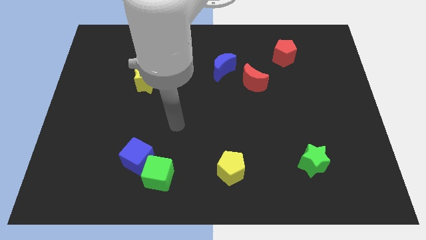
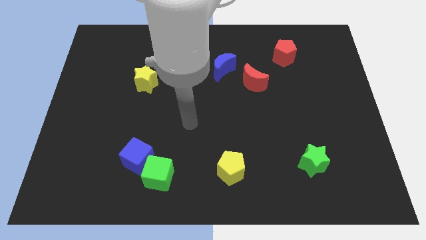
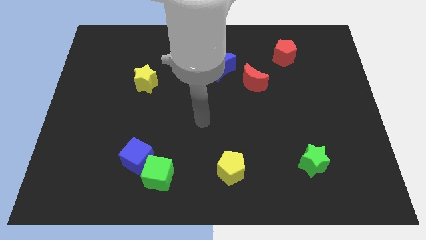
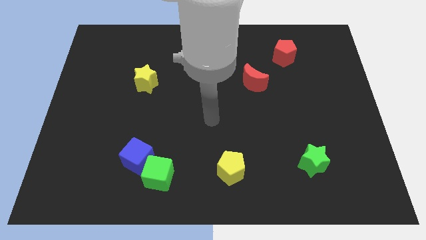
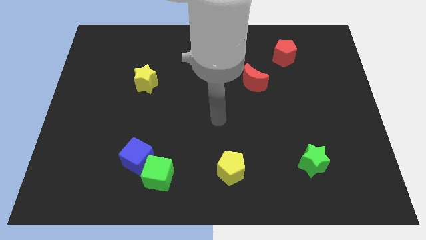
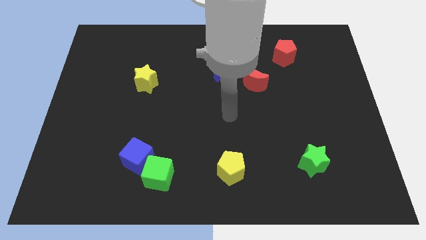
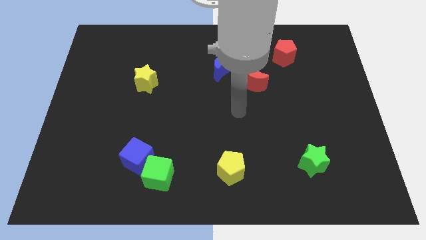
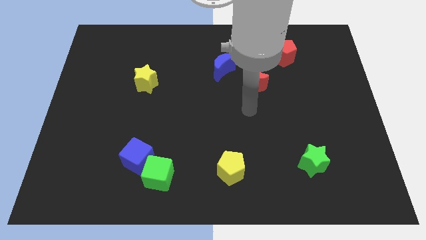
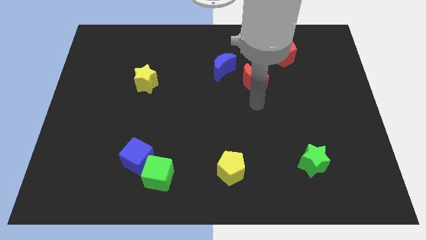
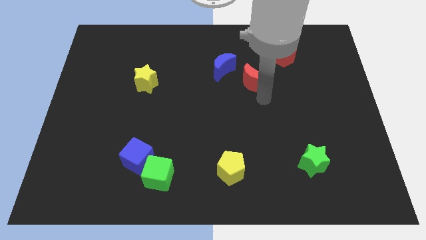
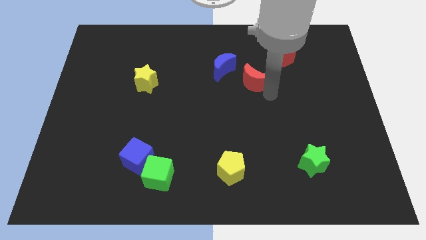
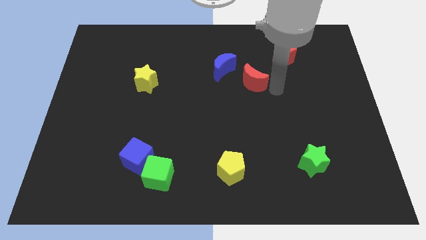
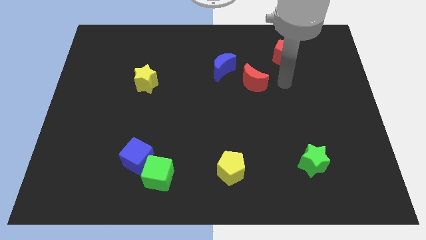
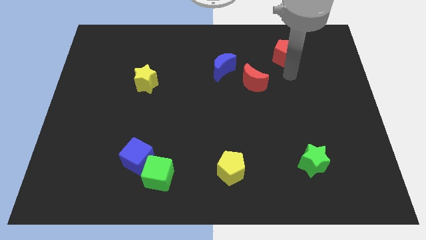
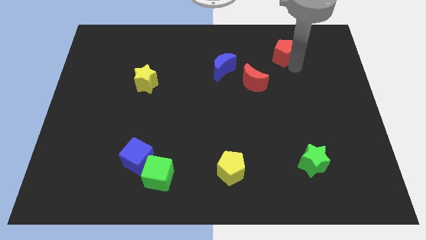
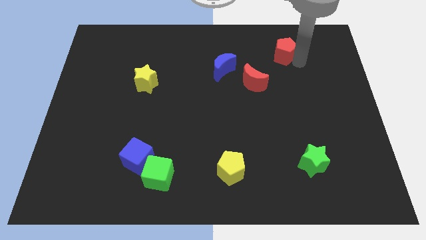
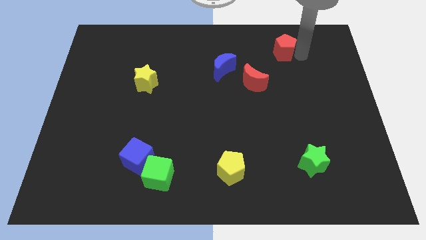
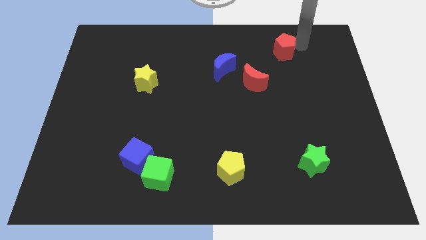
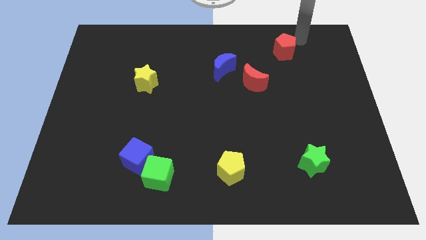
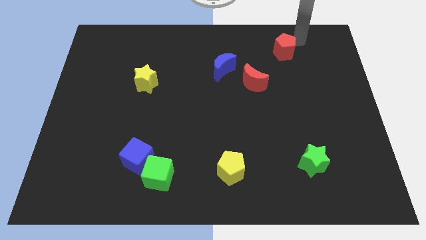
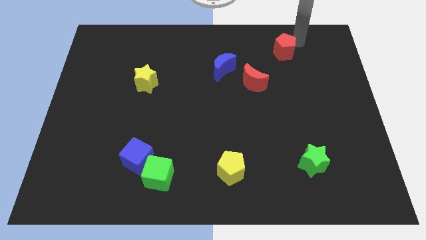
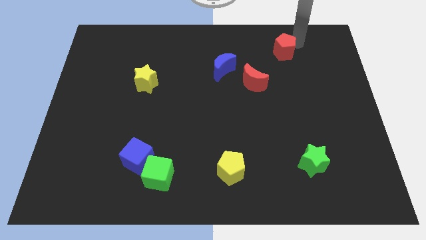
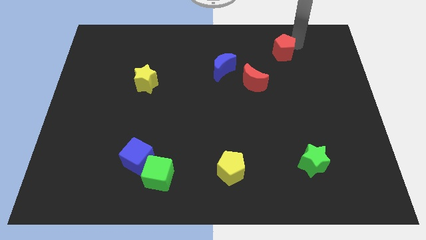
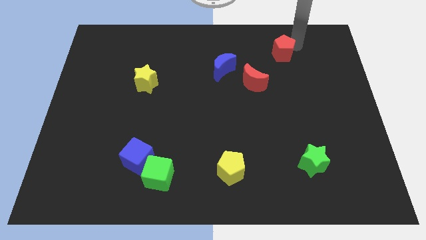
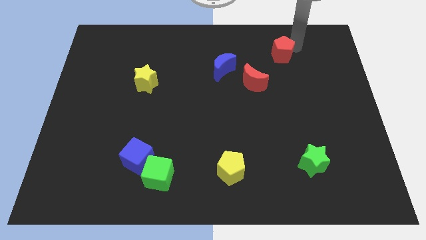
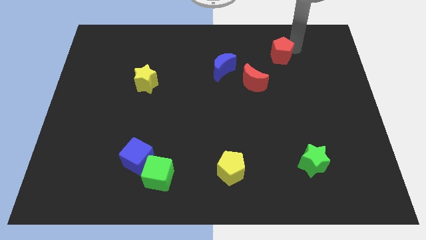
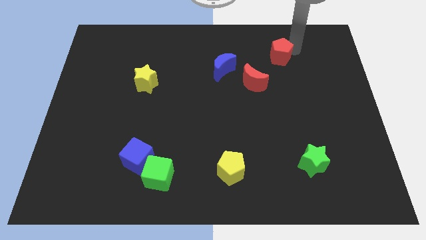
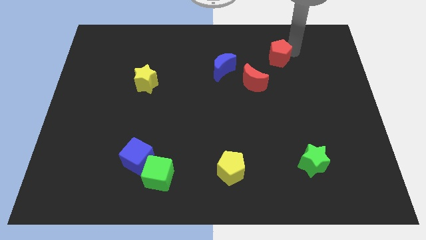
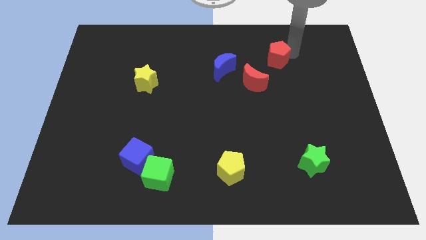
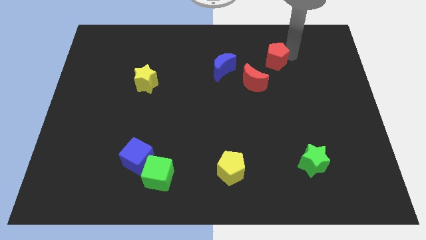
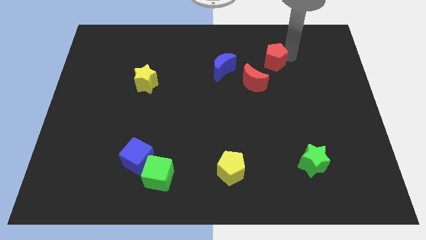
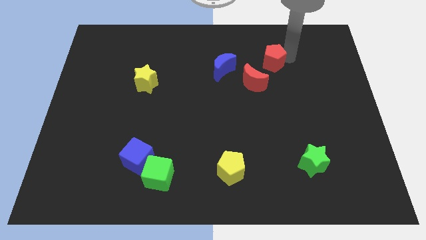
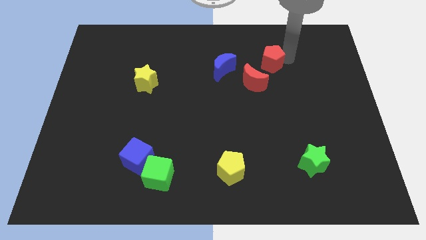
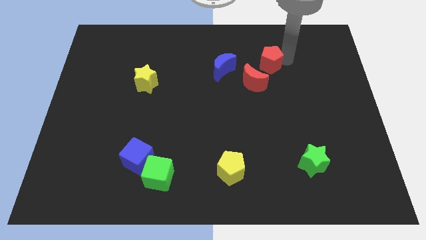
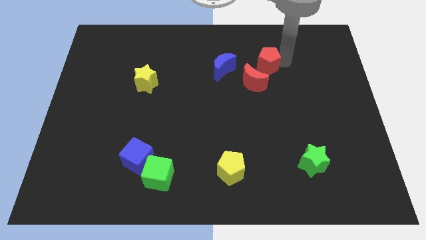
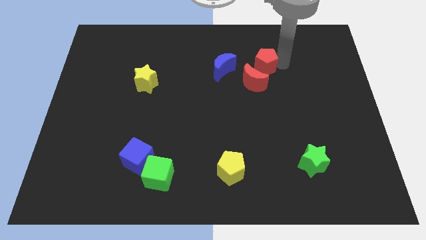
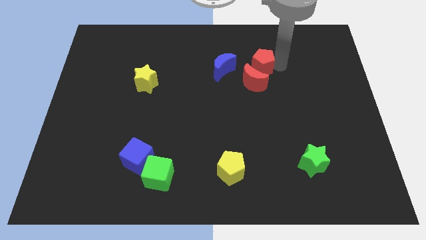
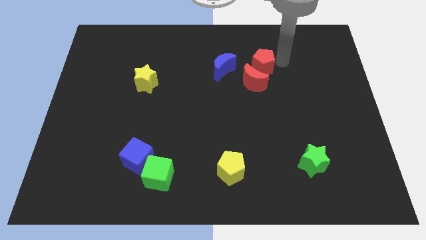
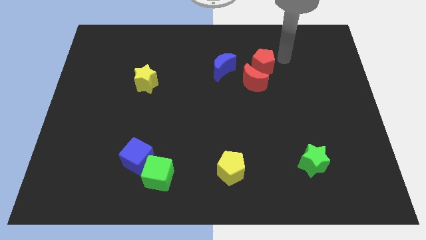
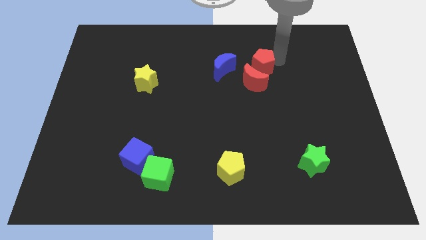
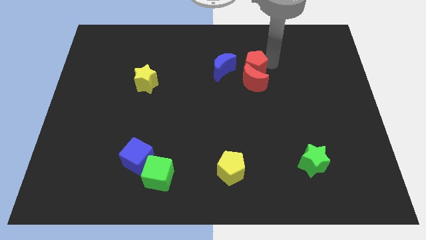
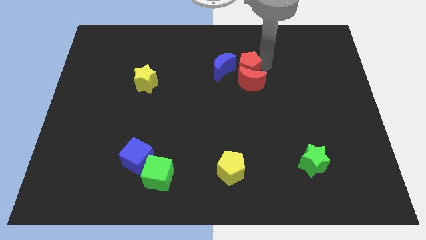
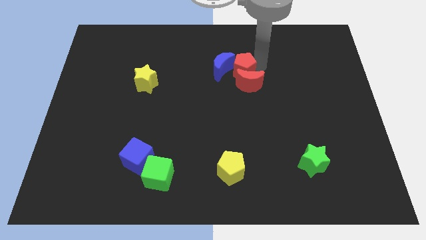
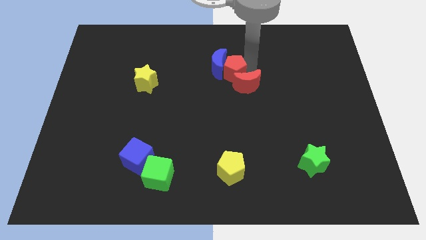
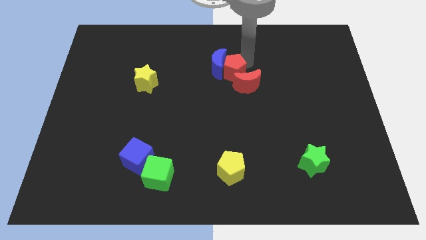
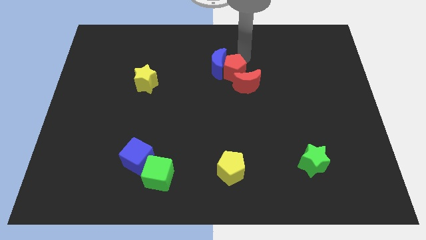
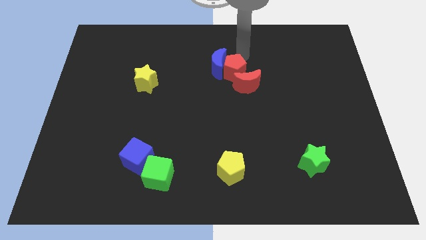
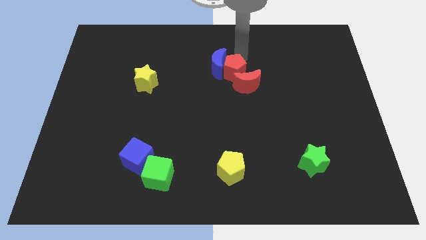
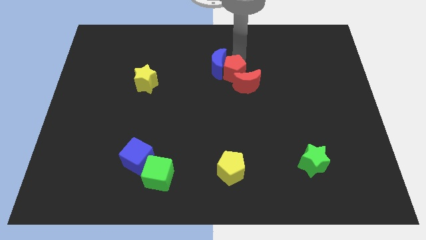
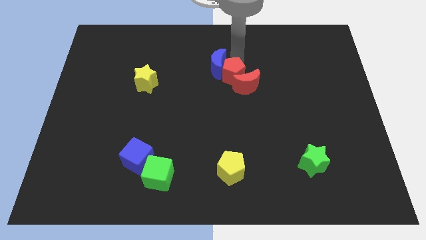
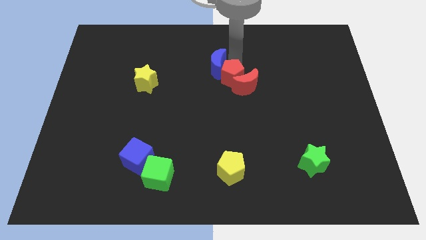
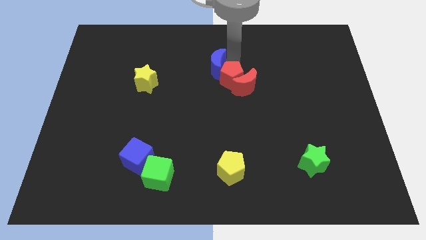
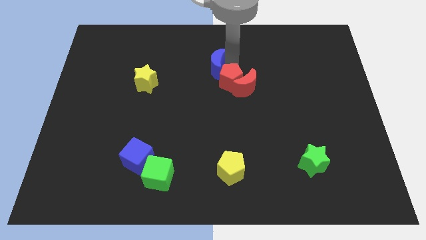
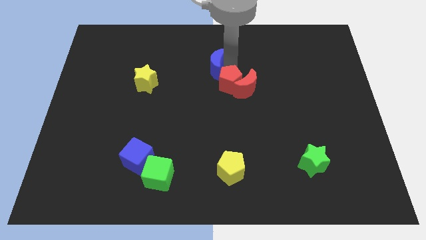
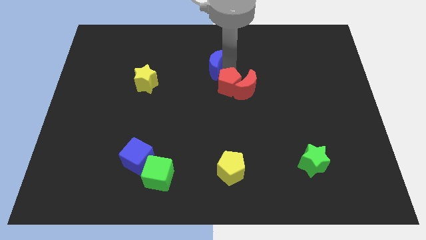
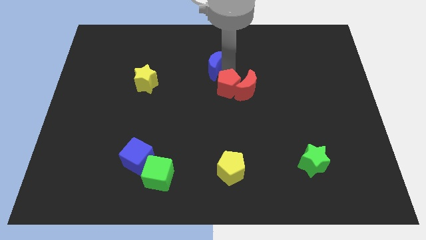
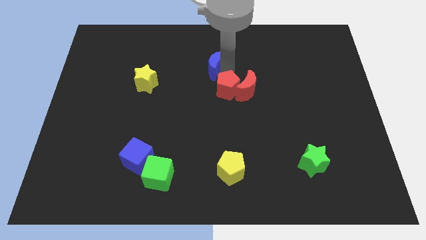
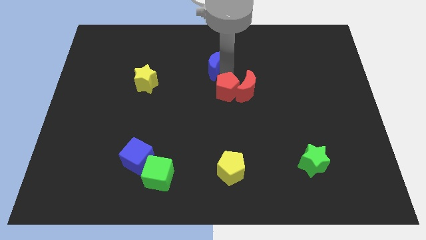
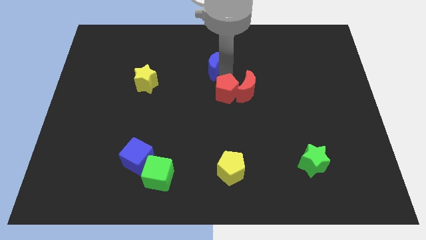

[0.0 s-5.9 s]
slide the red pentagon downwards and to the left diagonally

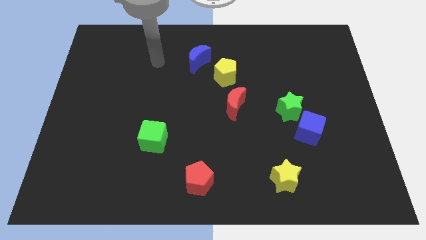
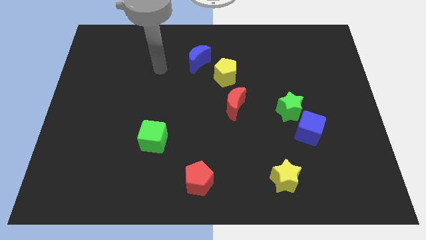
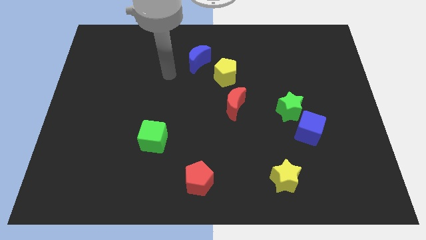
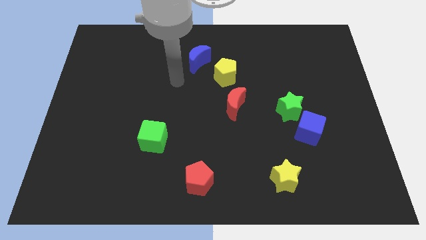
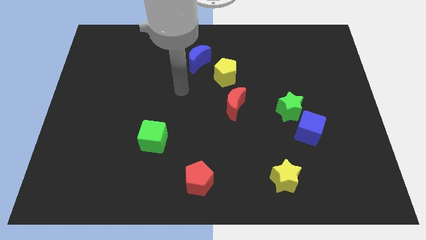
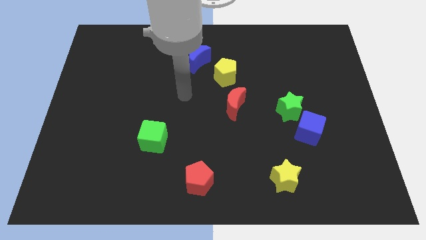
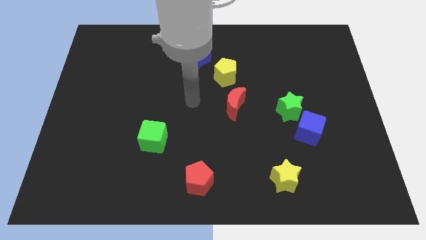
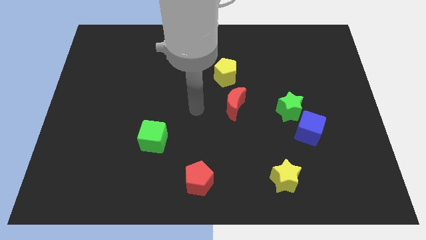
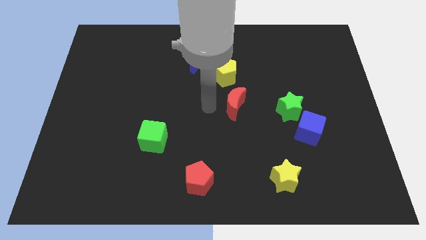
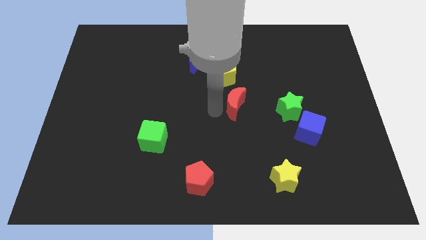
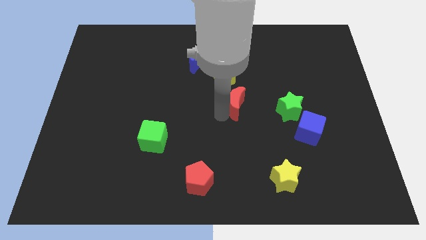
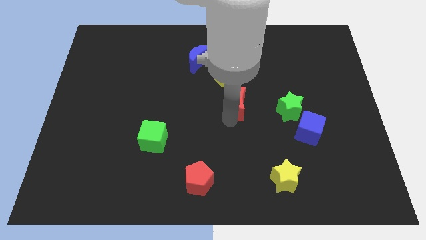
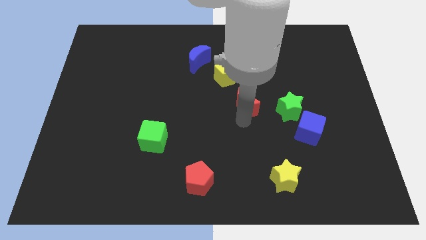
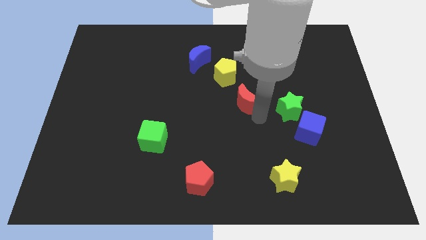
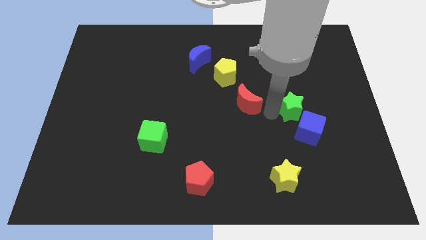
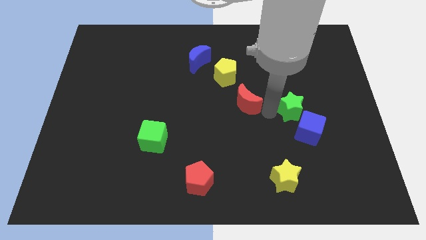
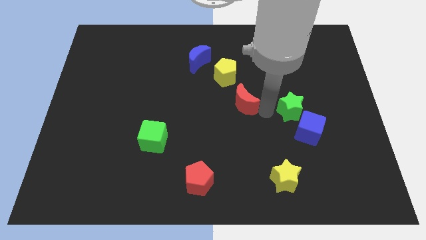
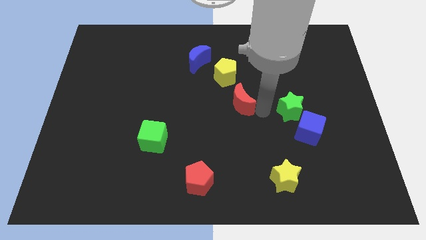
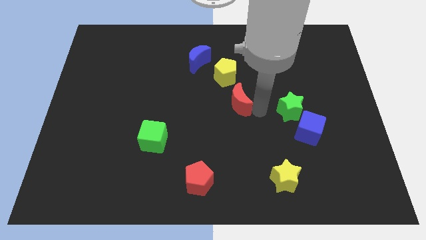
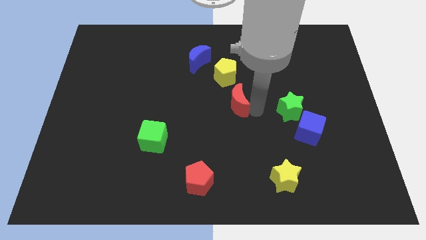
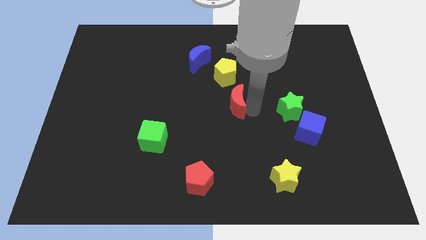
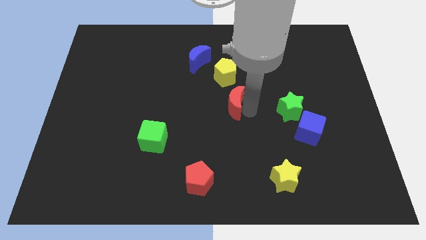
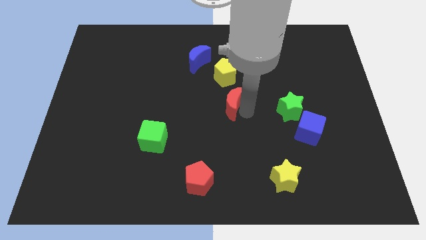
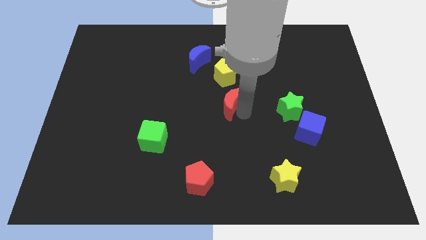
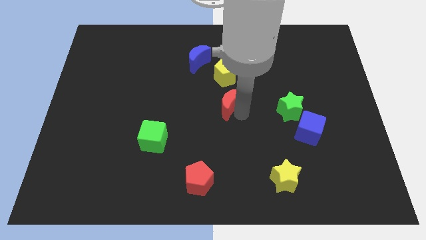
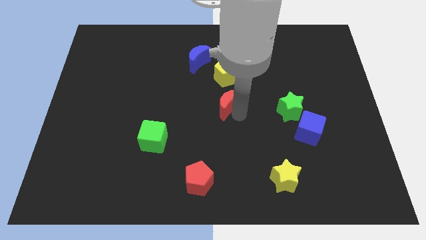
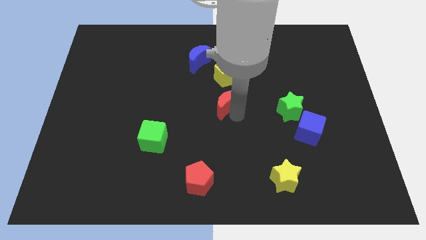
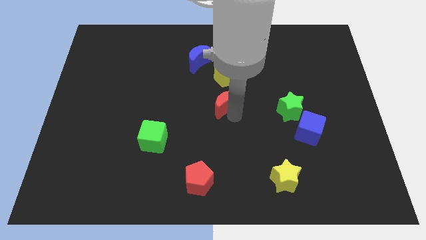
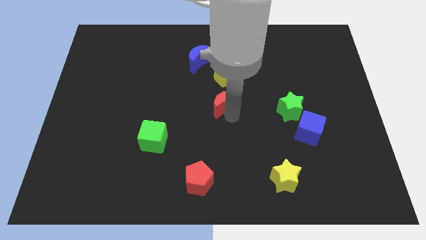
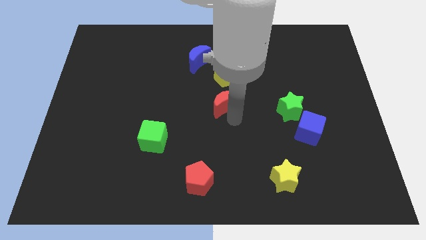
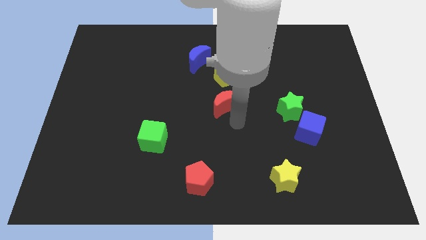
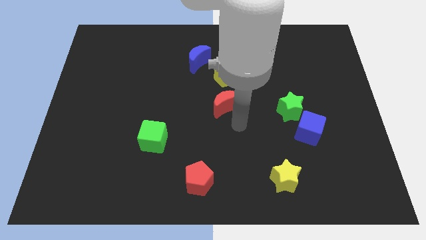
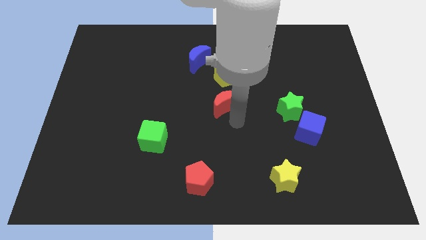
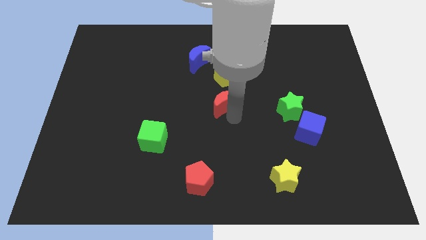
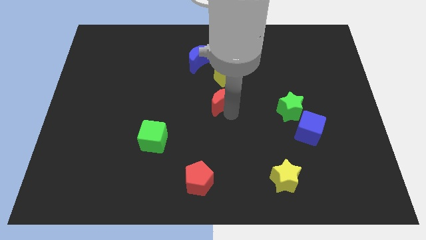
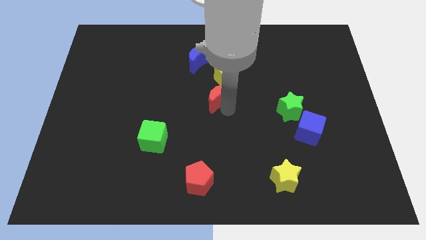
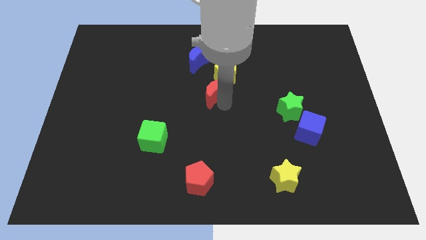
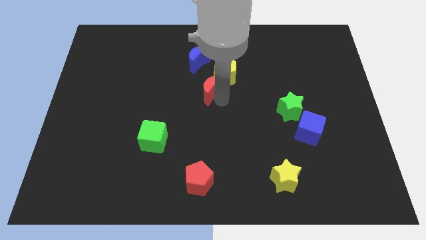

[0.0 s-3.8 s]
push the red moon slightly up and then to the left
